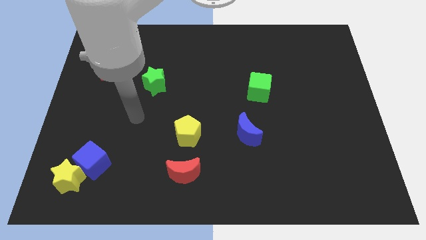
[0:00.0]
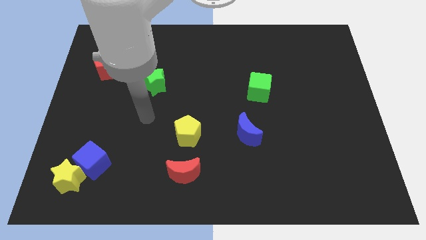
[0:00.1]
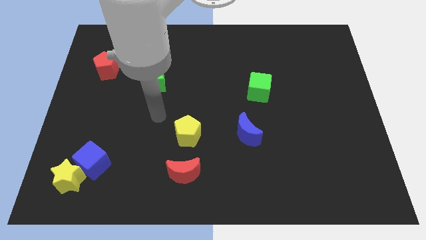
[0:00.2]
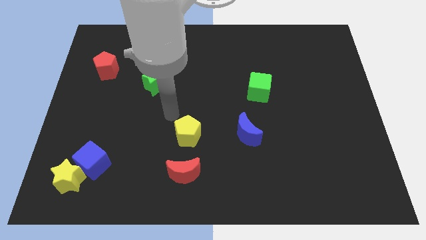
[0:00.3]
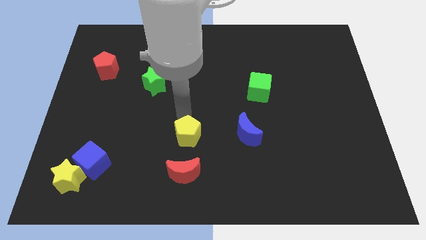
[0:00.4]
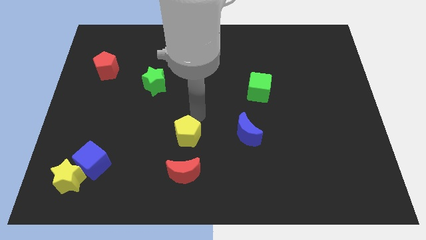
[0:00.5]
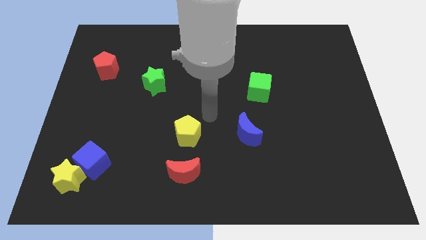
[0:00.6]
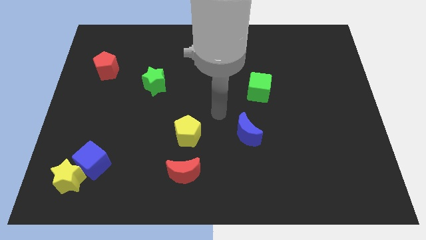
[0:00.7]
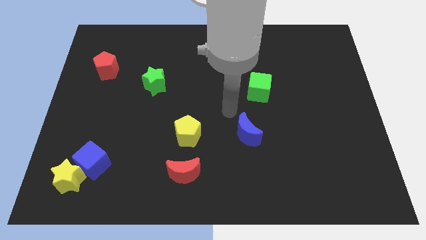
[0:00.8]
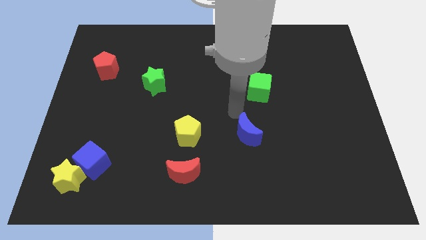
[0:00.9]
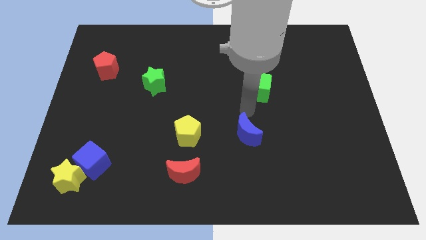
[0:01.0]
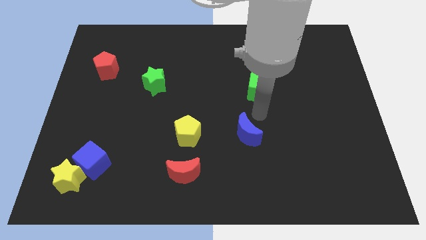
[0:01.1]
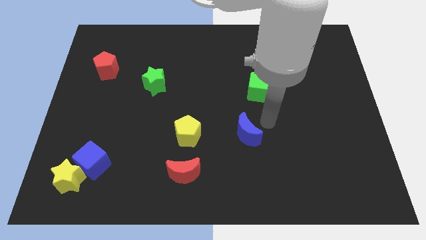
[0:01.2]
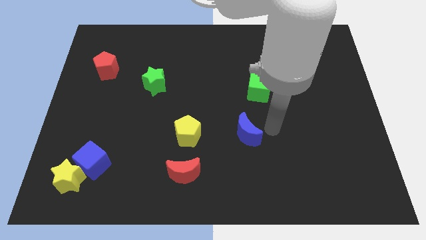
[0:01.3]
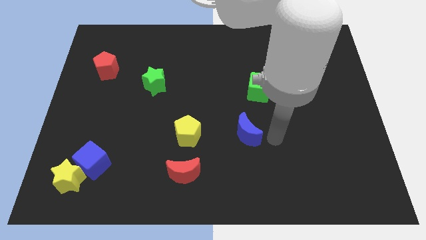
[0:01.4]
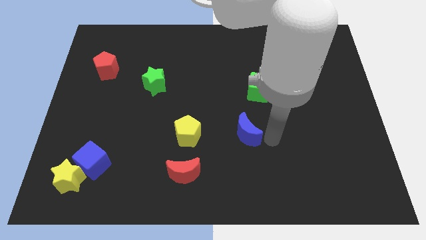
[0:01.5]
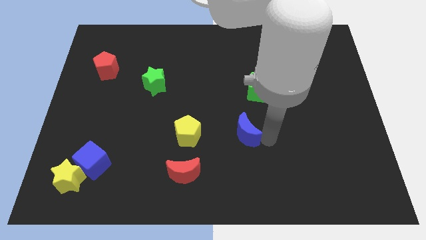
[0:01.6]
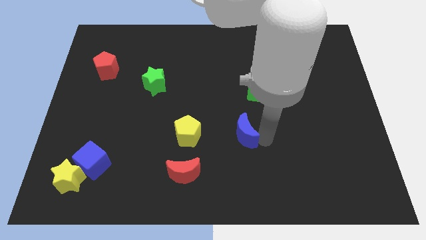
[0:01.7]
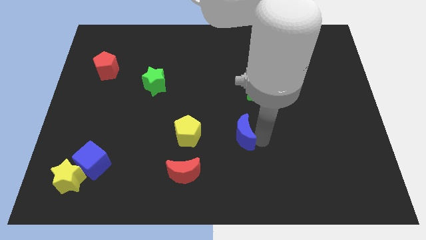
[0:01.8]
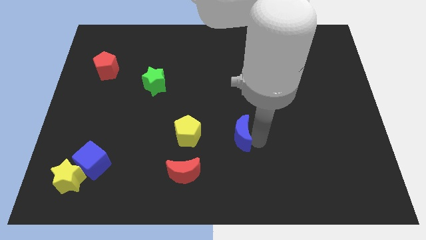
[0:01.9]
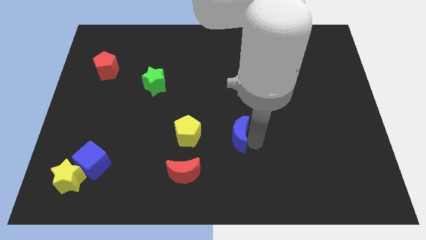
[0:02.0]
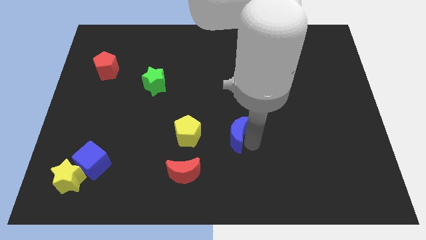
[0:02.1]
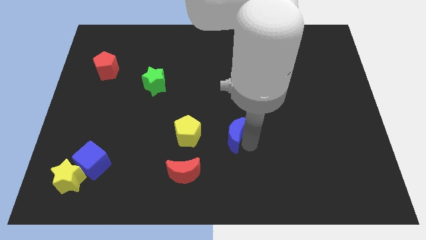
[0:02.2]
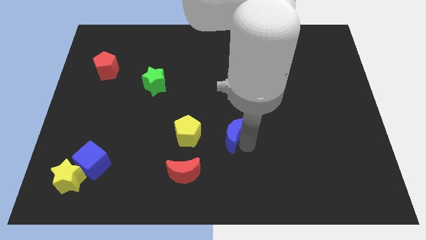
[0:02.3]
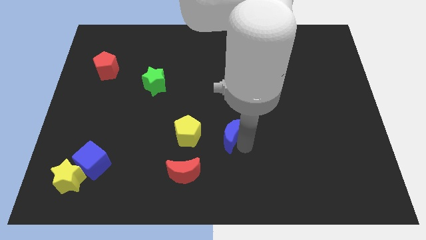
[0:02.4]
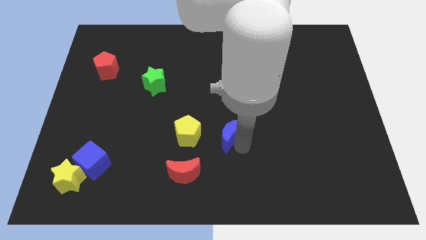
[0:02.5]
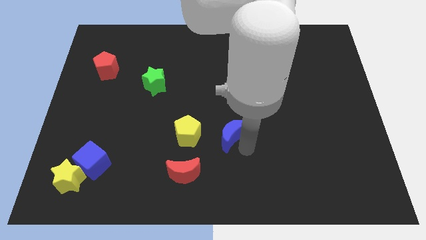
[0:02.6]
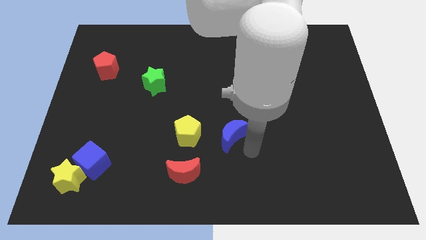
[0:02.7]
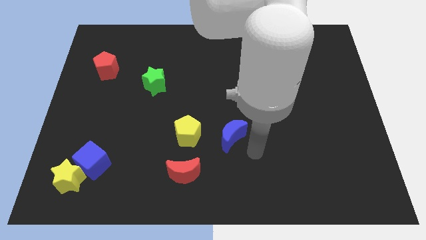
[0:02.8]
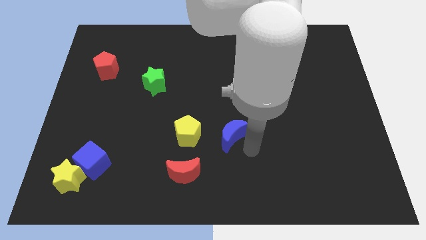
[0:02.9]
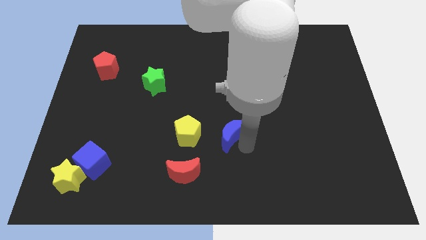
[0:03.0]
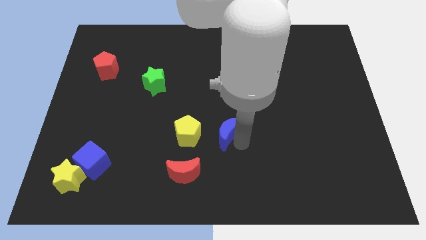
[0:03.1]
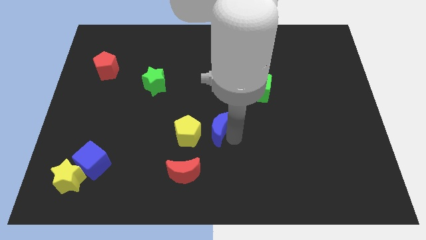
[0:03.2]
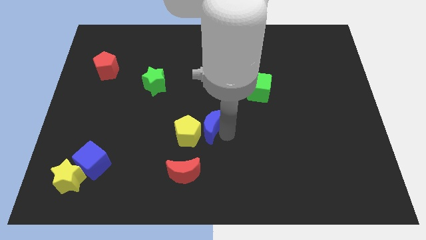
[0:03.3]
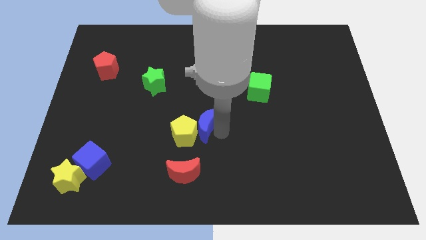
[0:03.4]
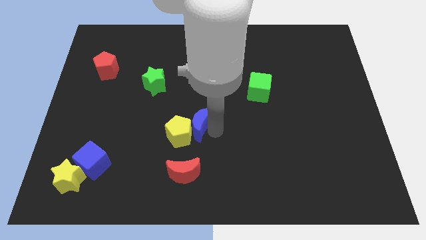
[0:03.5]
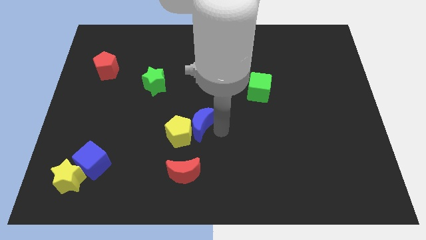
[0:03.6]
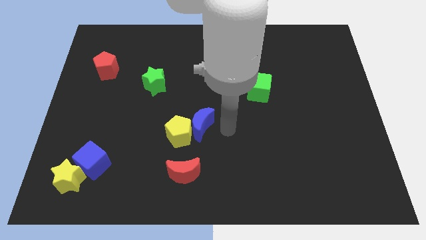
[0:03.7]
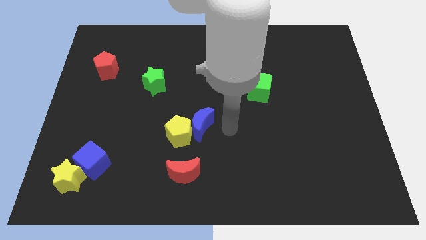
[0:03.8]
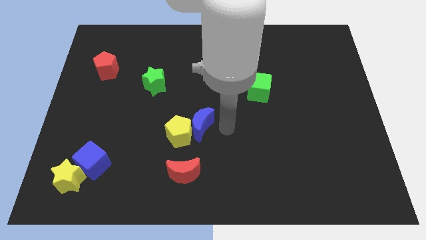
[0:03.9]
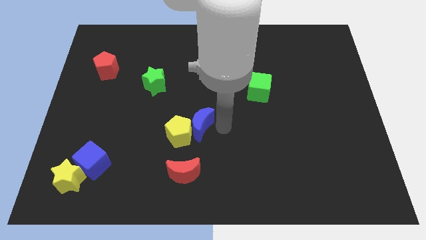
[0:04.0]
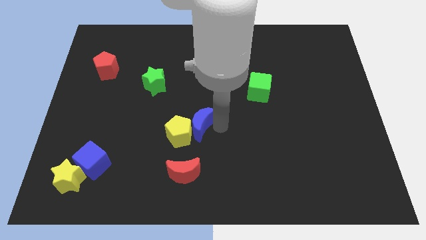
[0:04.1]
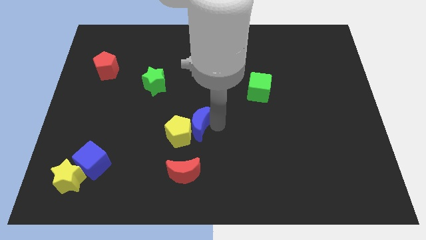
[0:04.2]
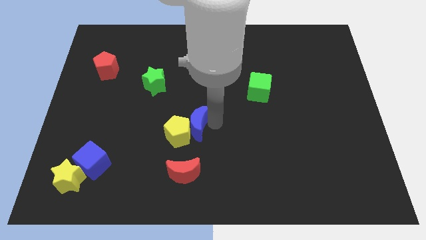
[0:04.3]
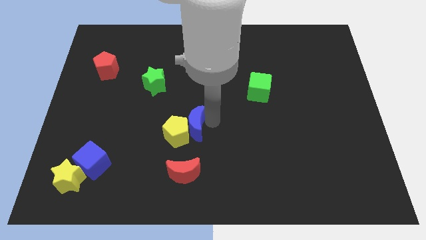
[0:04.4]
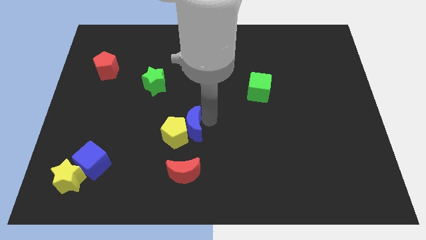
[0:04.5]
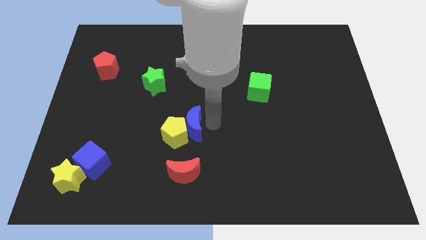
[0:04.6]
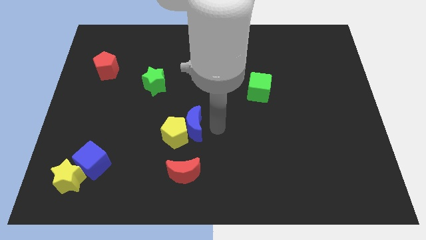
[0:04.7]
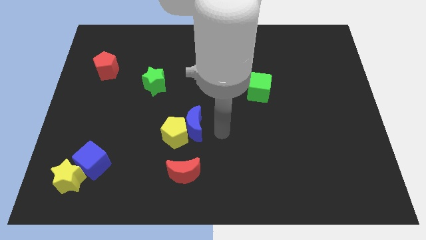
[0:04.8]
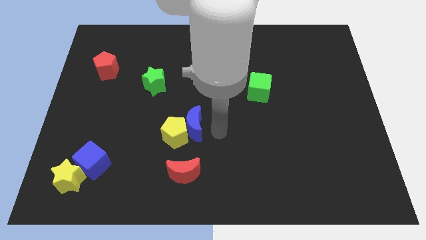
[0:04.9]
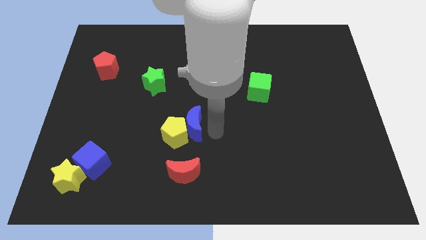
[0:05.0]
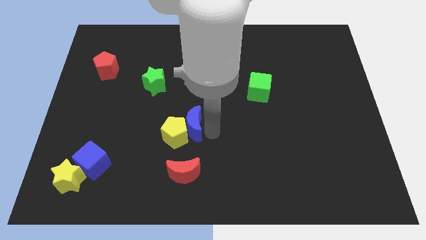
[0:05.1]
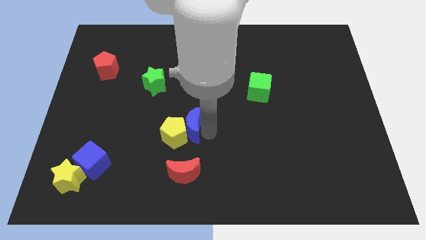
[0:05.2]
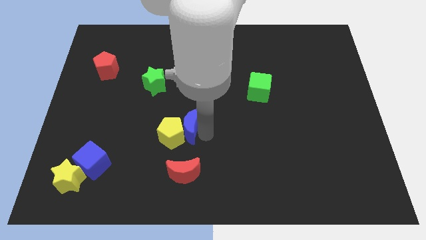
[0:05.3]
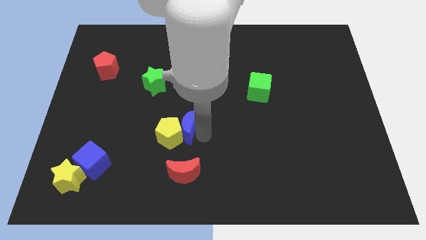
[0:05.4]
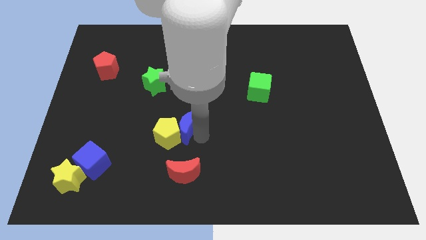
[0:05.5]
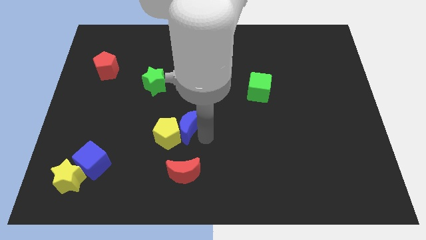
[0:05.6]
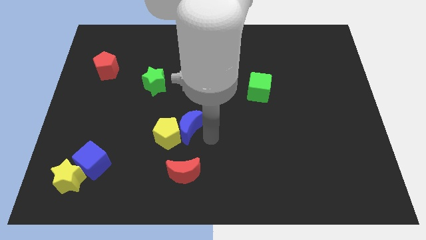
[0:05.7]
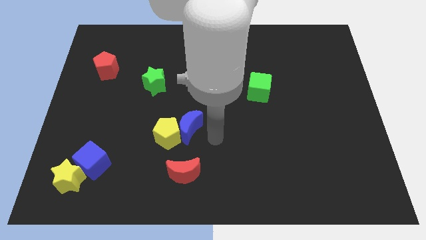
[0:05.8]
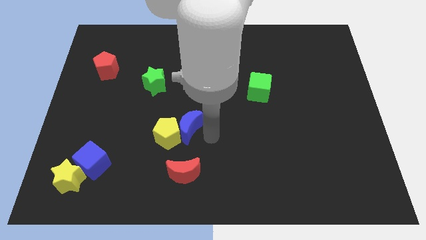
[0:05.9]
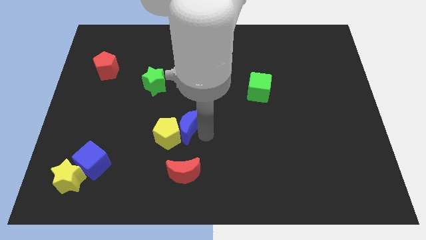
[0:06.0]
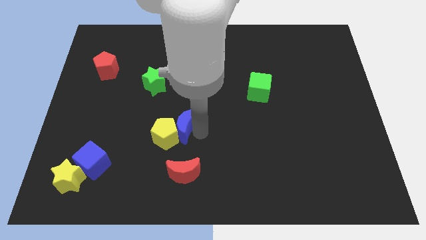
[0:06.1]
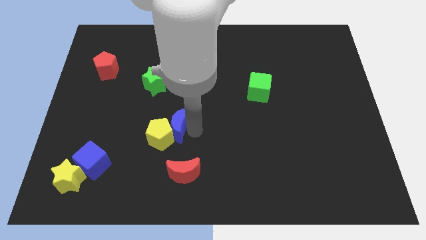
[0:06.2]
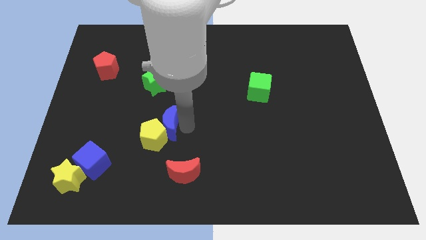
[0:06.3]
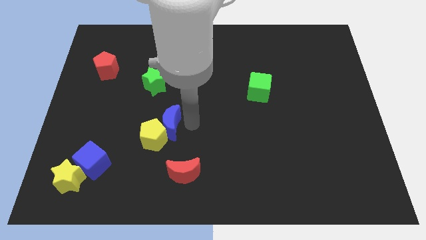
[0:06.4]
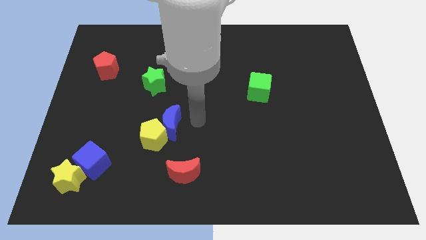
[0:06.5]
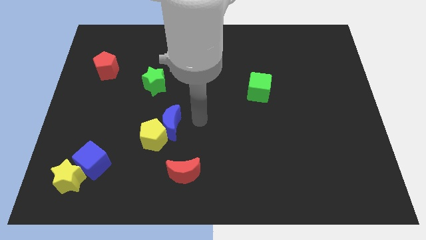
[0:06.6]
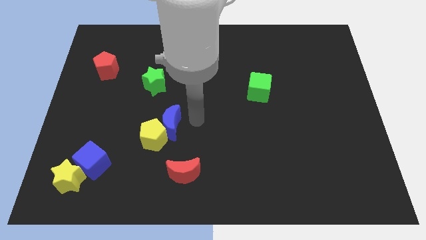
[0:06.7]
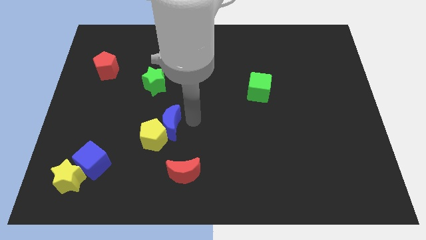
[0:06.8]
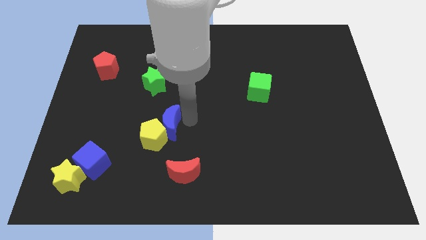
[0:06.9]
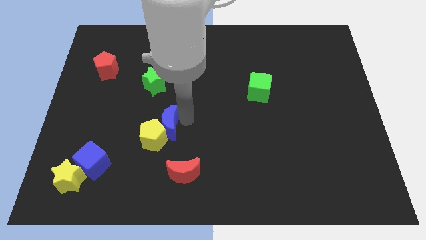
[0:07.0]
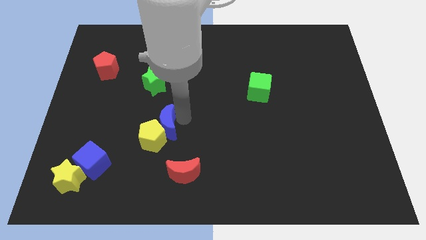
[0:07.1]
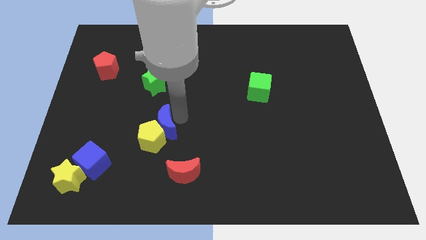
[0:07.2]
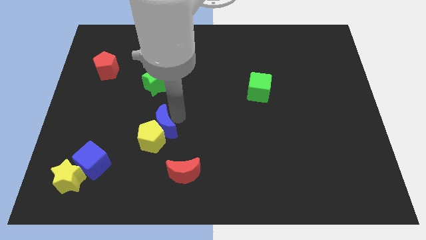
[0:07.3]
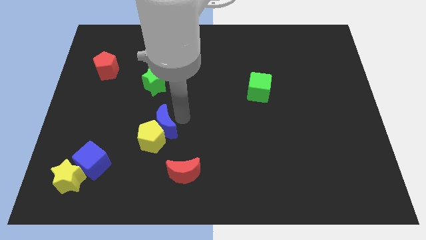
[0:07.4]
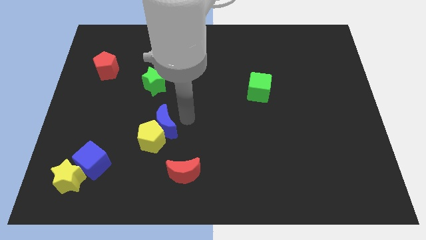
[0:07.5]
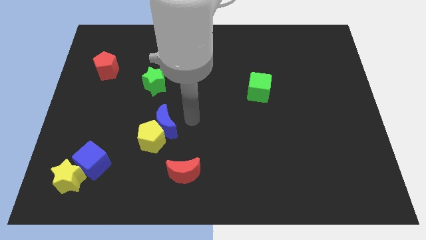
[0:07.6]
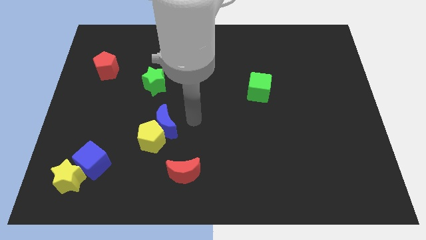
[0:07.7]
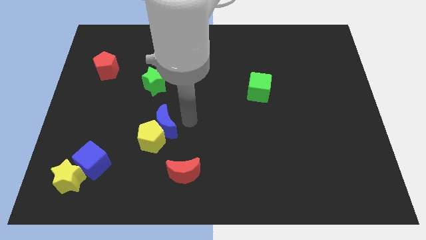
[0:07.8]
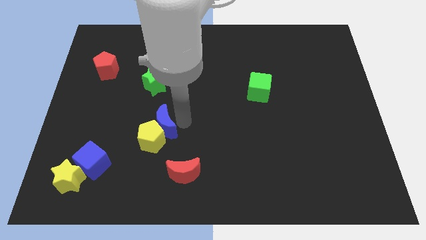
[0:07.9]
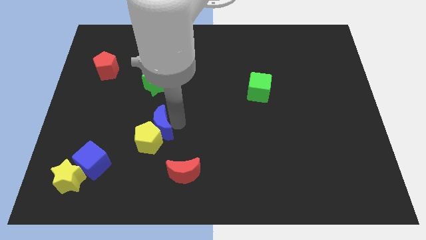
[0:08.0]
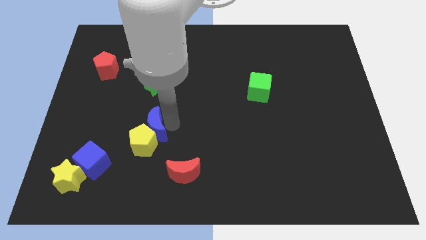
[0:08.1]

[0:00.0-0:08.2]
slide the blue moon to the left
